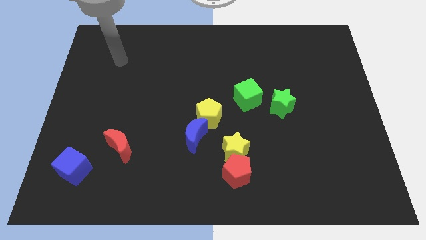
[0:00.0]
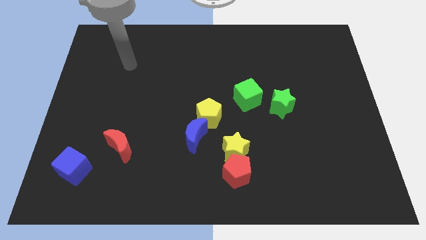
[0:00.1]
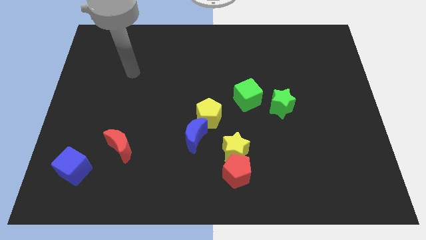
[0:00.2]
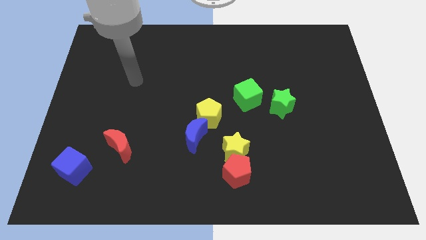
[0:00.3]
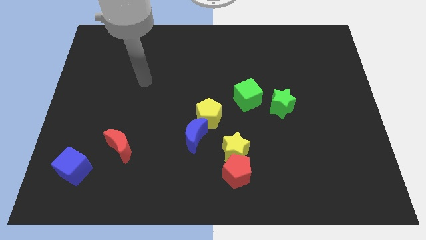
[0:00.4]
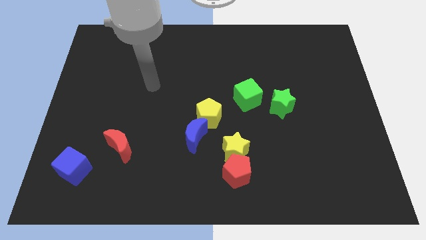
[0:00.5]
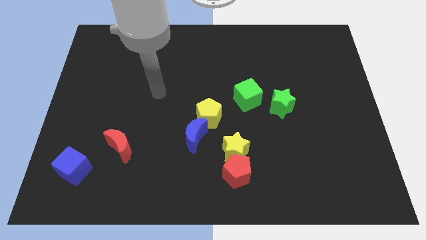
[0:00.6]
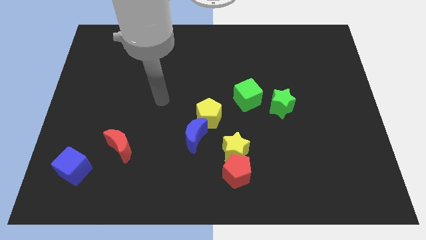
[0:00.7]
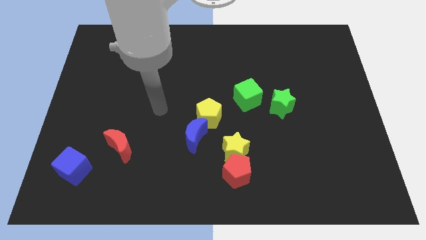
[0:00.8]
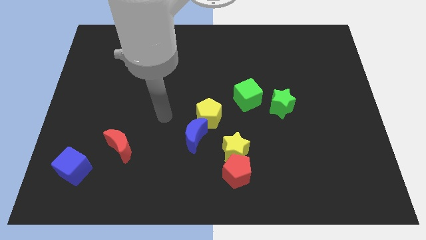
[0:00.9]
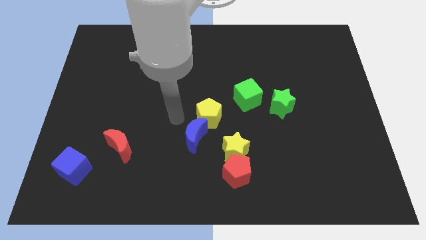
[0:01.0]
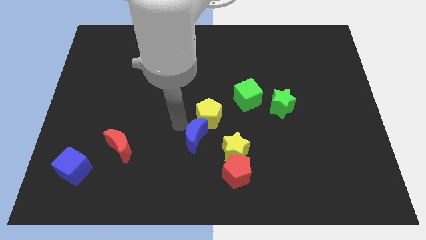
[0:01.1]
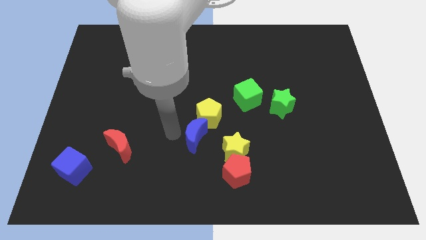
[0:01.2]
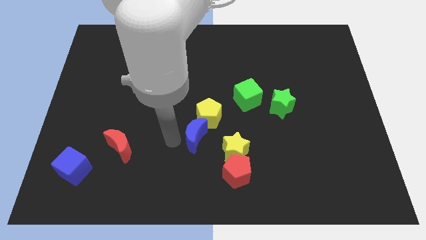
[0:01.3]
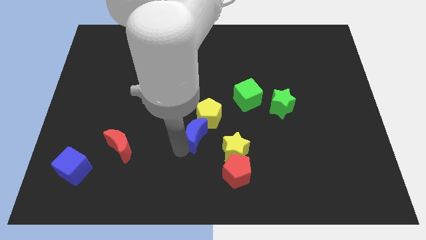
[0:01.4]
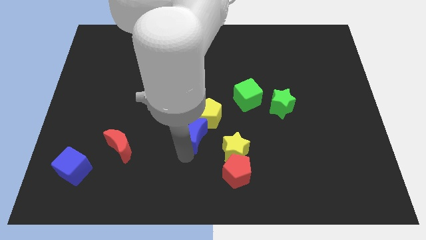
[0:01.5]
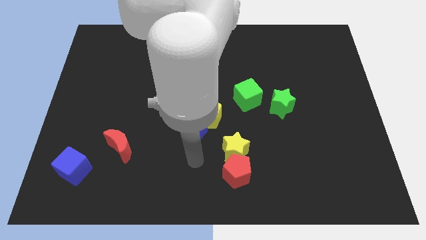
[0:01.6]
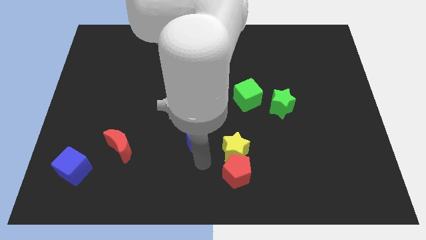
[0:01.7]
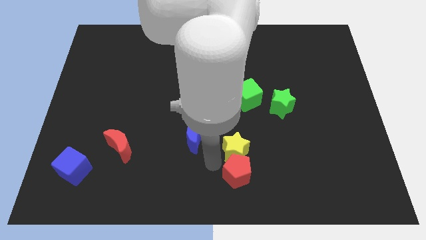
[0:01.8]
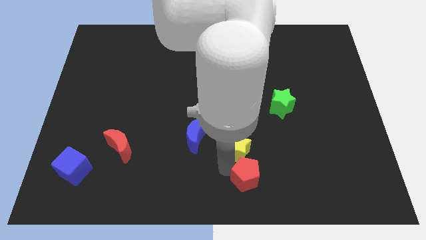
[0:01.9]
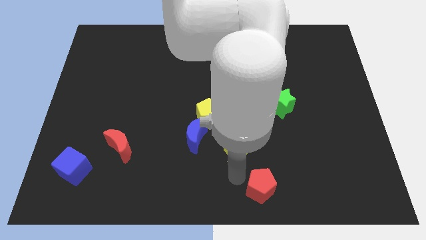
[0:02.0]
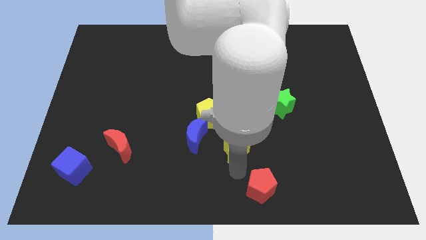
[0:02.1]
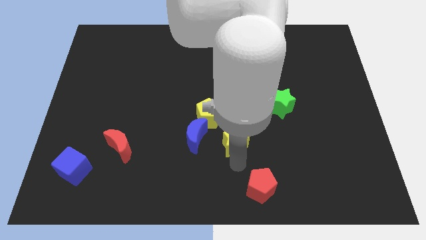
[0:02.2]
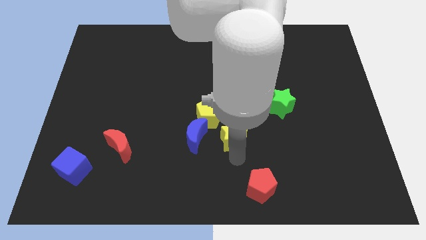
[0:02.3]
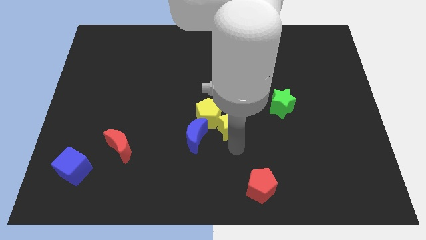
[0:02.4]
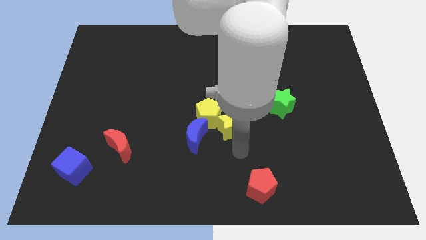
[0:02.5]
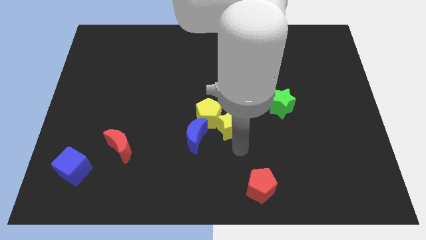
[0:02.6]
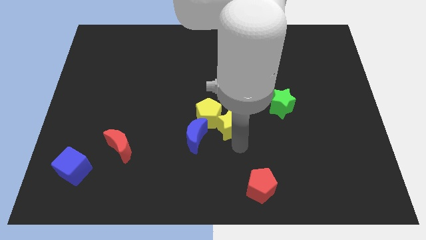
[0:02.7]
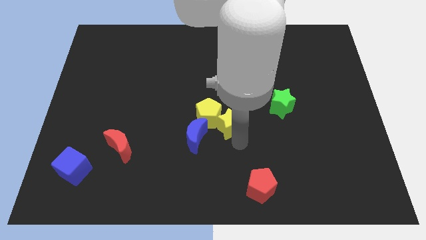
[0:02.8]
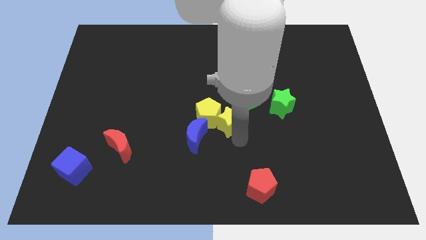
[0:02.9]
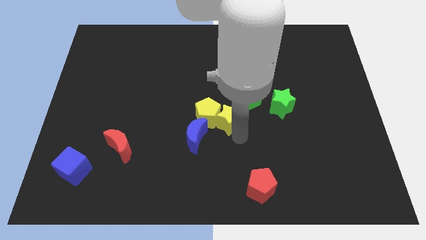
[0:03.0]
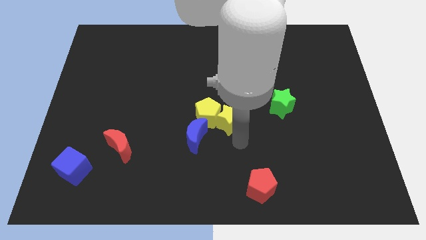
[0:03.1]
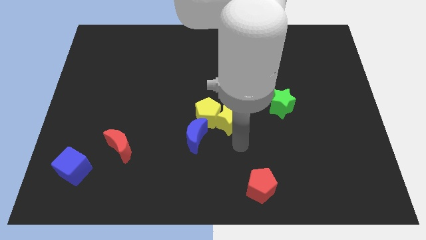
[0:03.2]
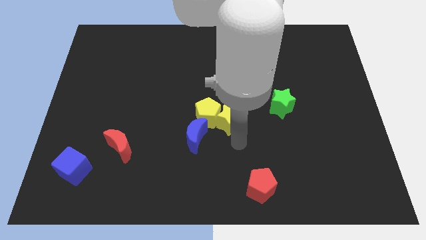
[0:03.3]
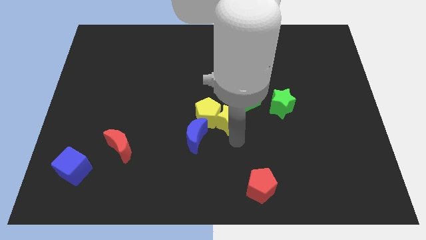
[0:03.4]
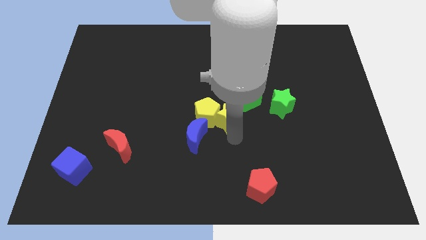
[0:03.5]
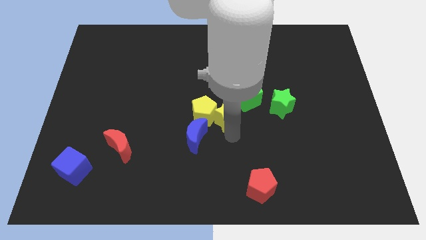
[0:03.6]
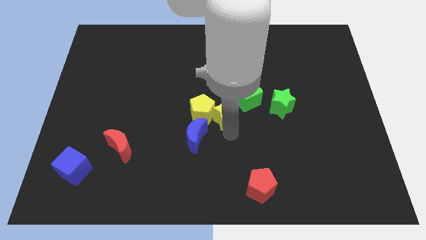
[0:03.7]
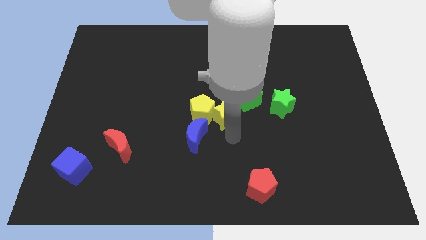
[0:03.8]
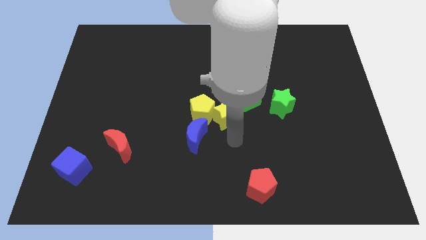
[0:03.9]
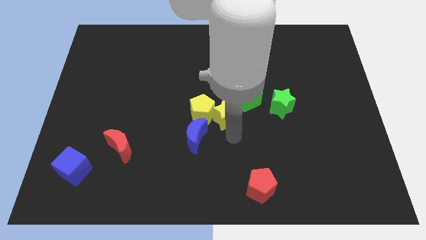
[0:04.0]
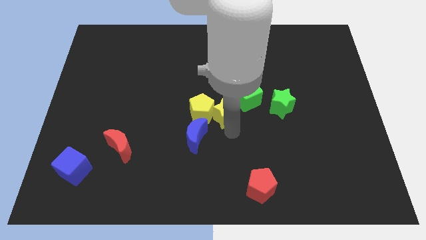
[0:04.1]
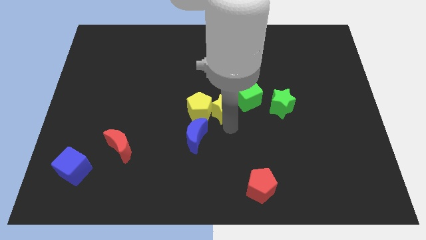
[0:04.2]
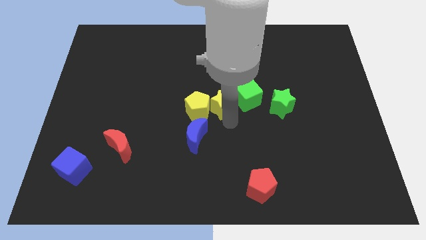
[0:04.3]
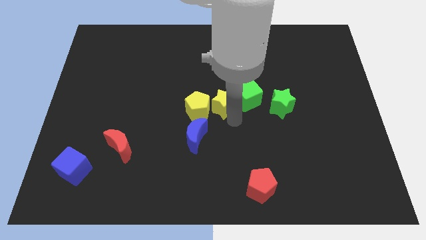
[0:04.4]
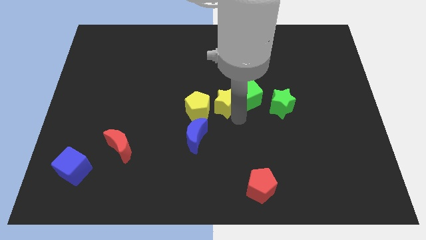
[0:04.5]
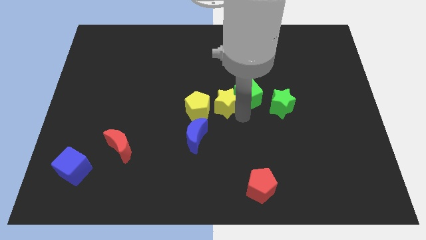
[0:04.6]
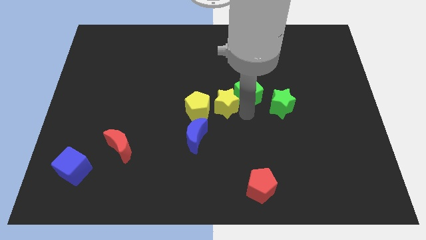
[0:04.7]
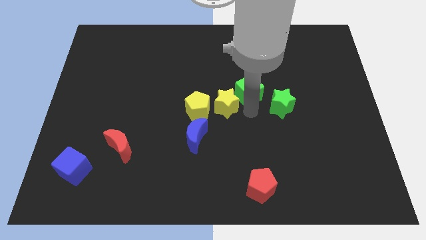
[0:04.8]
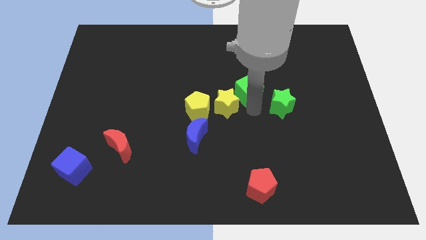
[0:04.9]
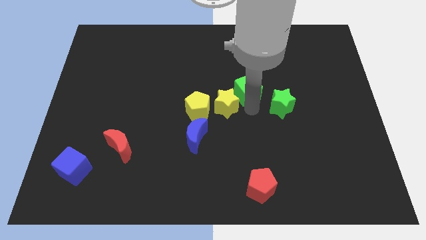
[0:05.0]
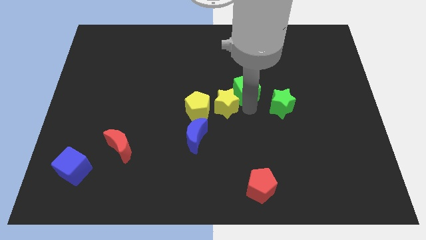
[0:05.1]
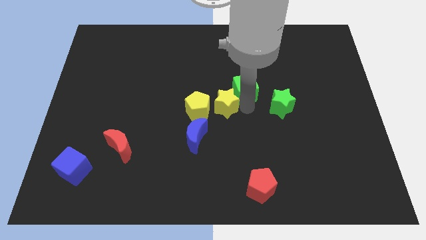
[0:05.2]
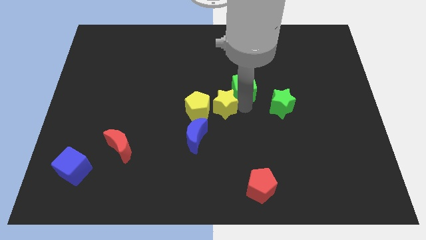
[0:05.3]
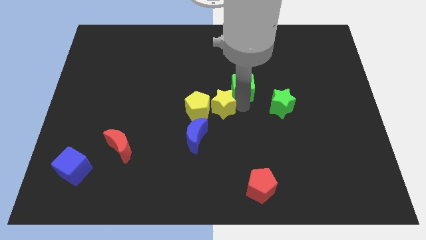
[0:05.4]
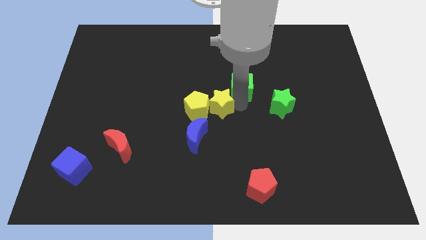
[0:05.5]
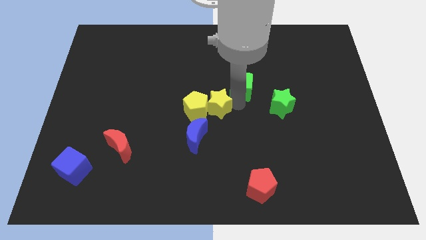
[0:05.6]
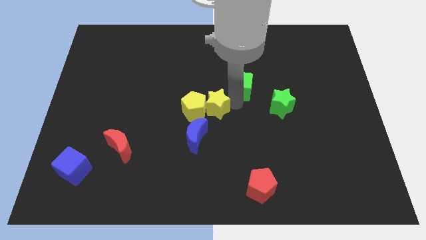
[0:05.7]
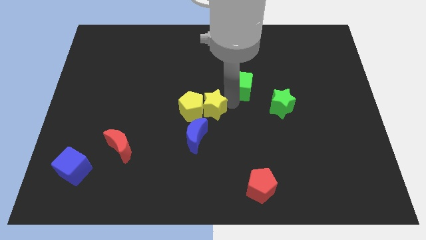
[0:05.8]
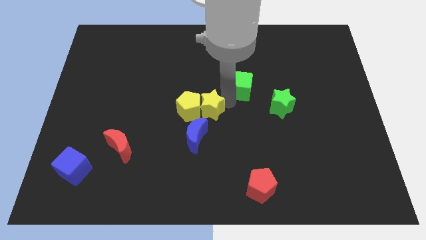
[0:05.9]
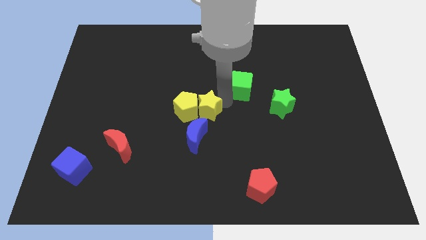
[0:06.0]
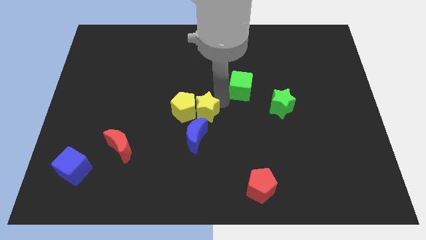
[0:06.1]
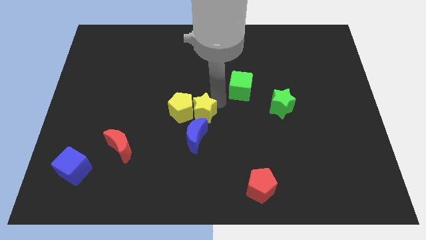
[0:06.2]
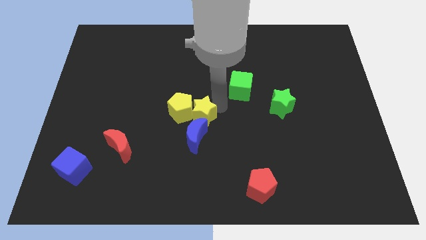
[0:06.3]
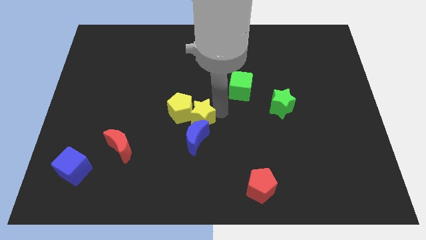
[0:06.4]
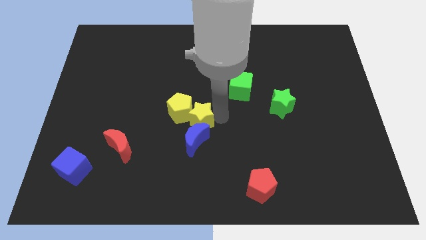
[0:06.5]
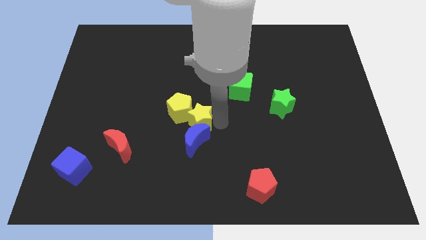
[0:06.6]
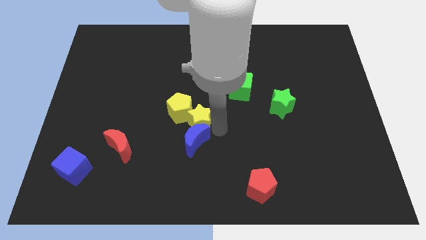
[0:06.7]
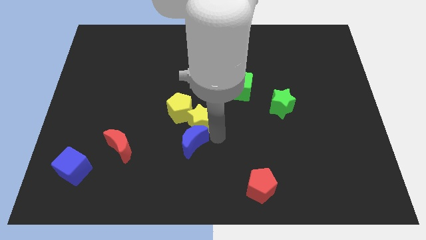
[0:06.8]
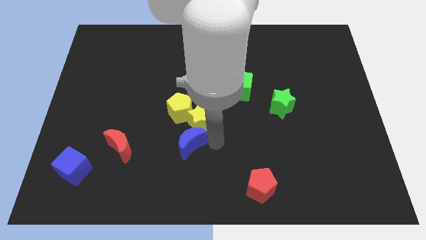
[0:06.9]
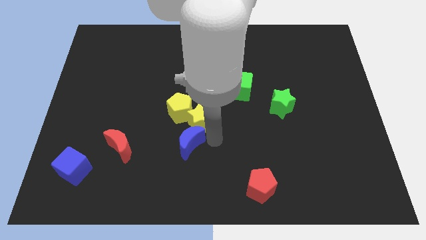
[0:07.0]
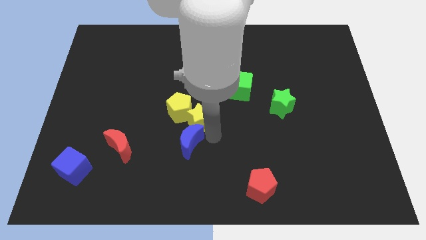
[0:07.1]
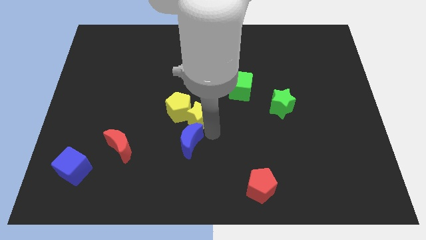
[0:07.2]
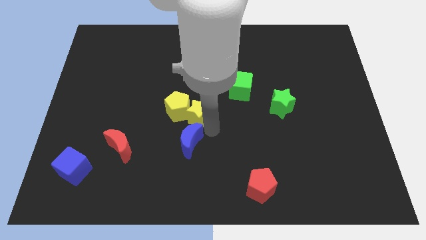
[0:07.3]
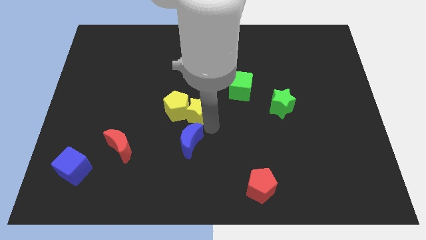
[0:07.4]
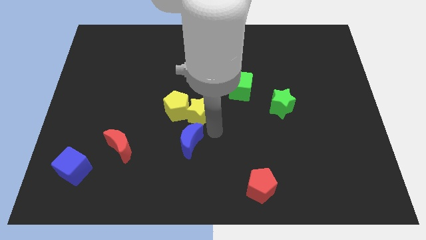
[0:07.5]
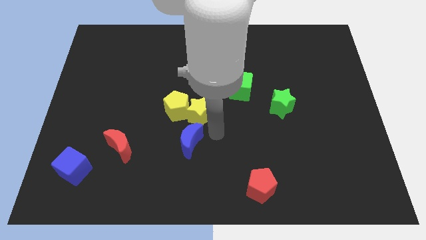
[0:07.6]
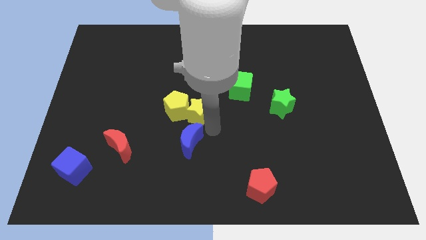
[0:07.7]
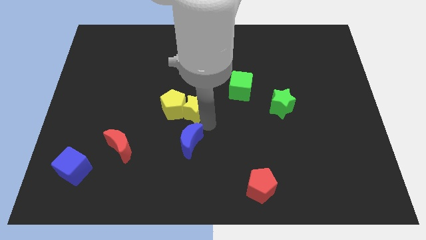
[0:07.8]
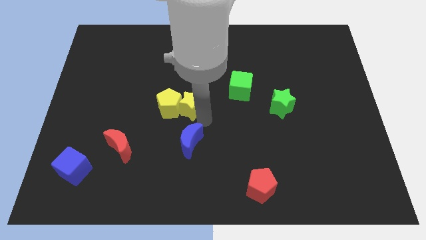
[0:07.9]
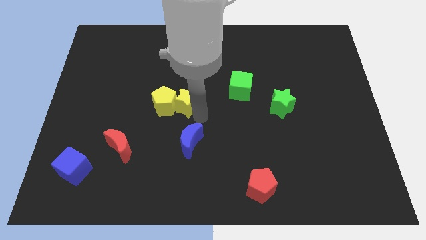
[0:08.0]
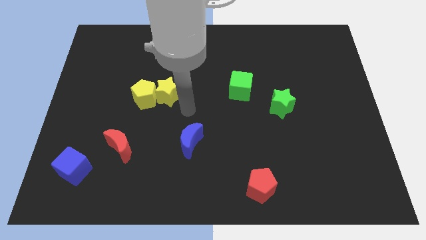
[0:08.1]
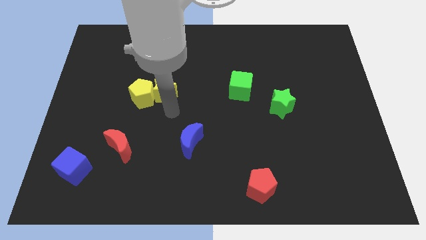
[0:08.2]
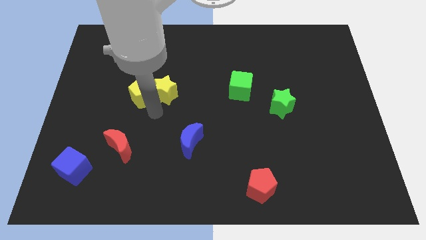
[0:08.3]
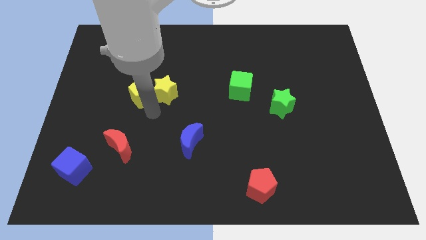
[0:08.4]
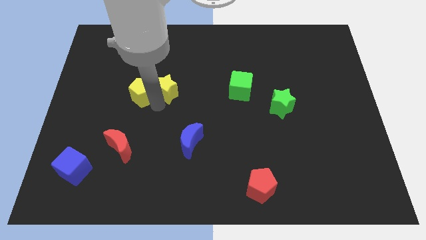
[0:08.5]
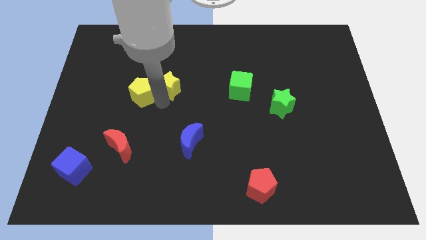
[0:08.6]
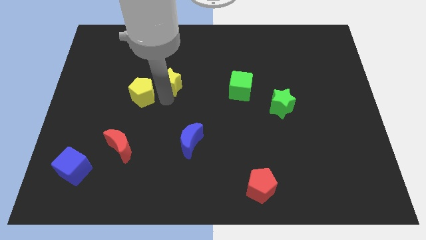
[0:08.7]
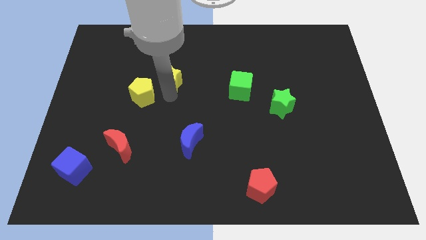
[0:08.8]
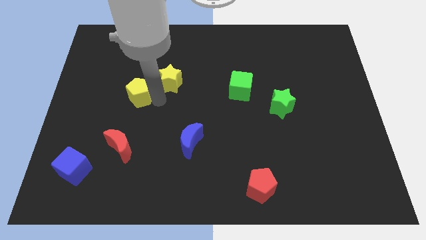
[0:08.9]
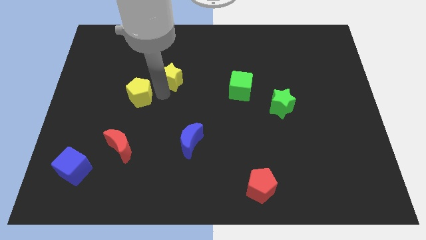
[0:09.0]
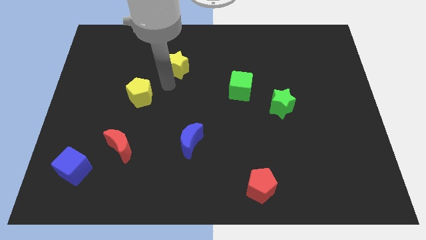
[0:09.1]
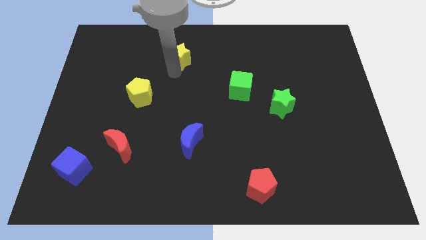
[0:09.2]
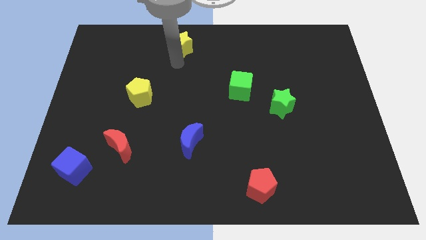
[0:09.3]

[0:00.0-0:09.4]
put the yellow star to the towards your base
